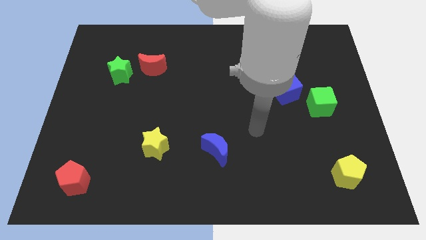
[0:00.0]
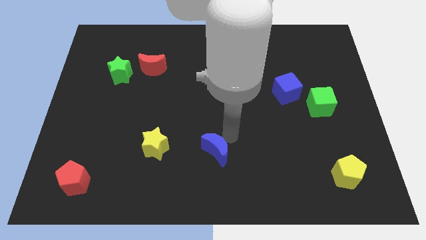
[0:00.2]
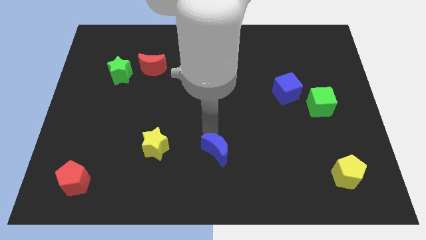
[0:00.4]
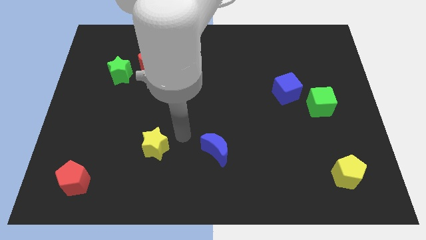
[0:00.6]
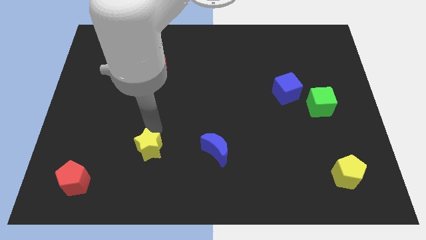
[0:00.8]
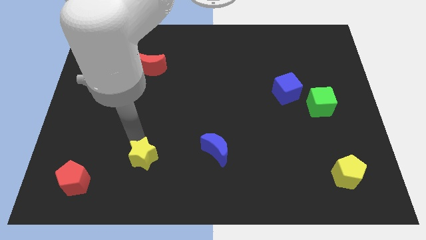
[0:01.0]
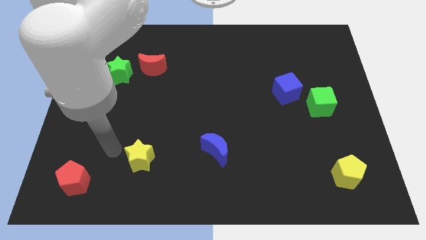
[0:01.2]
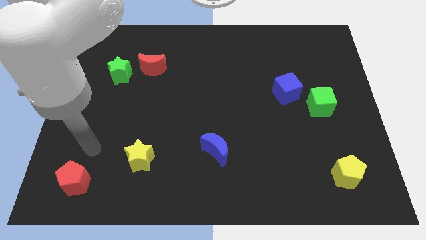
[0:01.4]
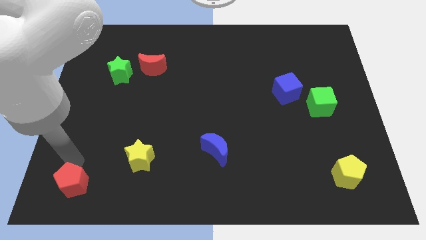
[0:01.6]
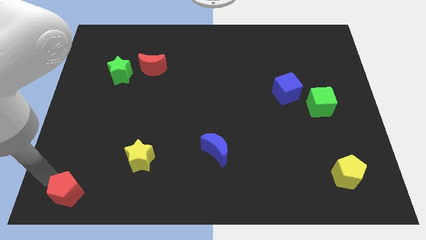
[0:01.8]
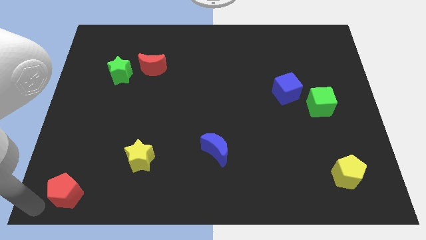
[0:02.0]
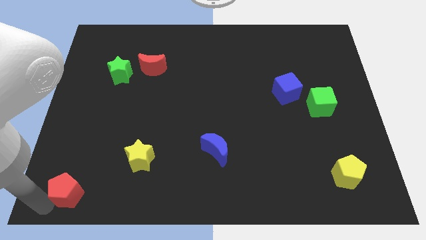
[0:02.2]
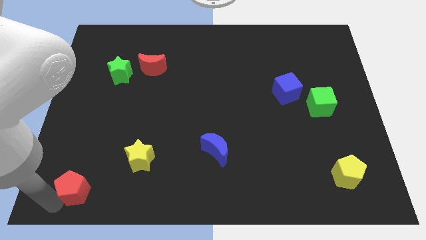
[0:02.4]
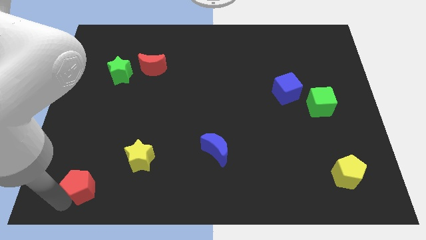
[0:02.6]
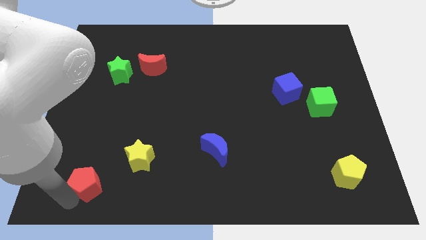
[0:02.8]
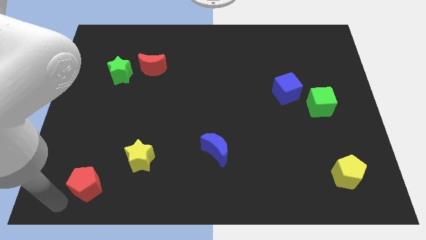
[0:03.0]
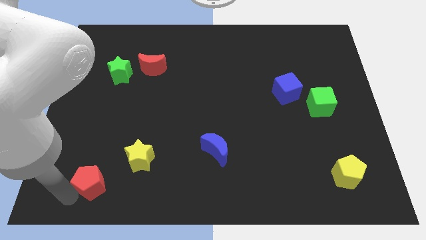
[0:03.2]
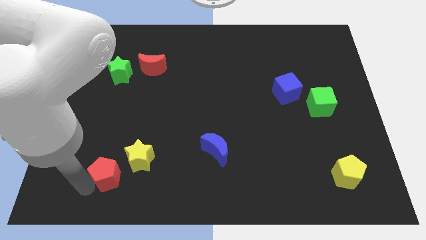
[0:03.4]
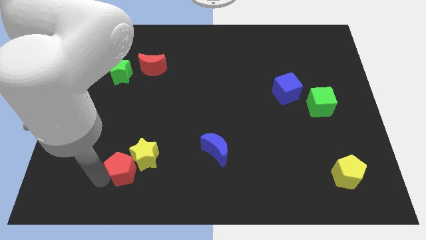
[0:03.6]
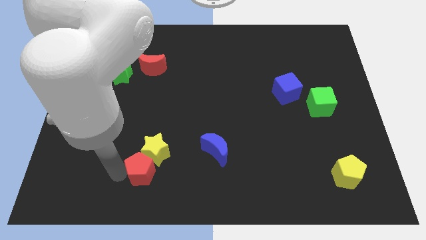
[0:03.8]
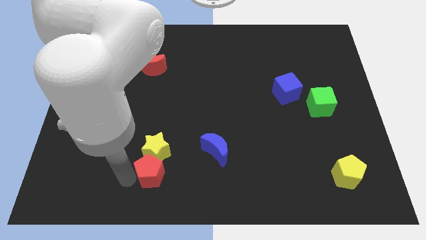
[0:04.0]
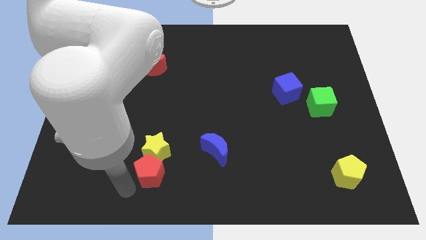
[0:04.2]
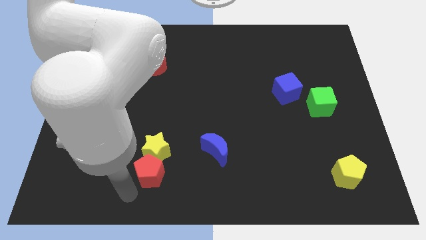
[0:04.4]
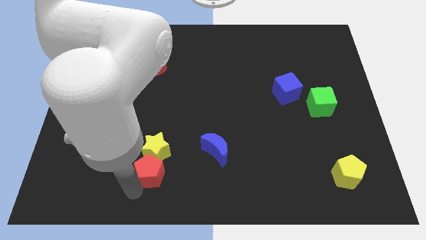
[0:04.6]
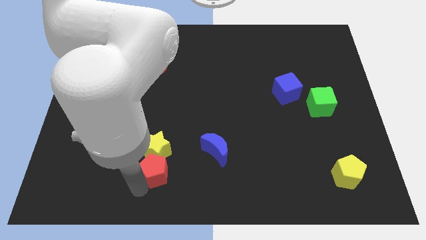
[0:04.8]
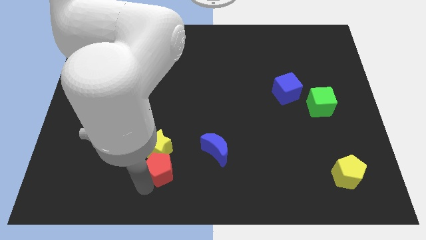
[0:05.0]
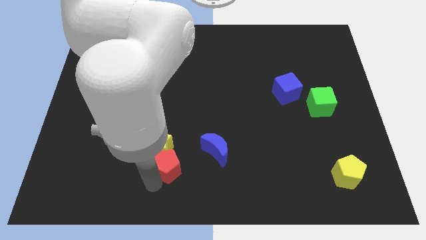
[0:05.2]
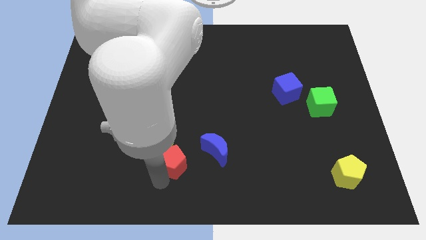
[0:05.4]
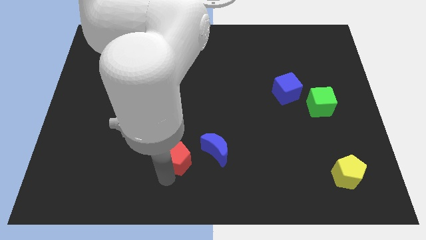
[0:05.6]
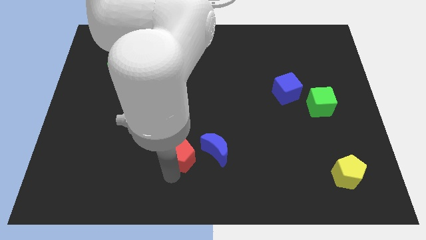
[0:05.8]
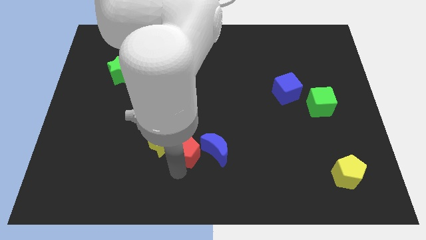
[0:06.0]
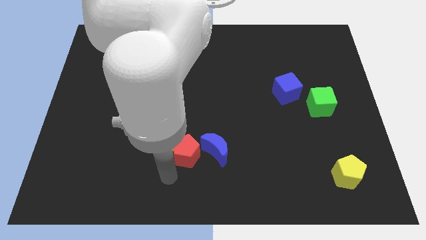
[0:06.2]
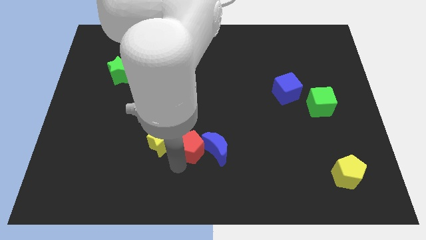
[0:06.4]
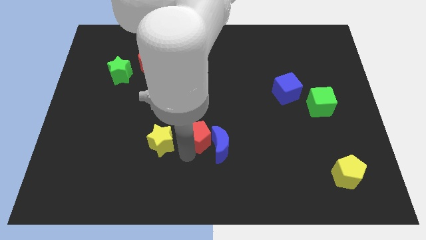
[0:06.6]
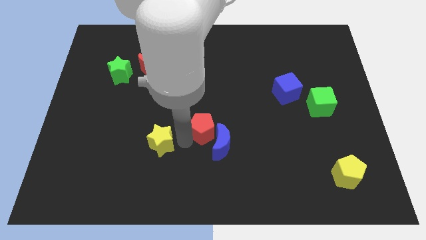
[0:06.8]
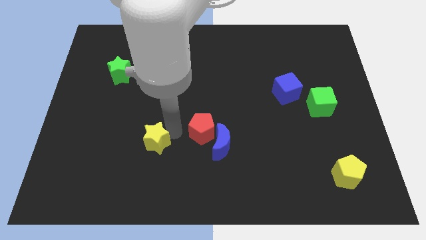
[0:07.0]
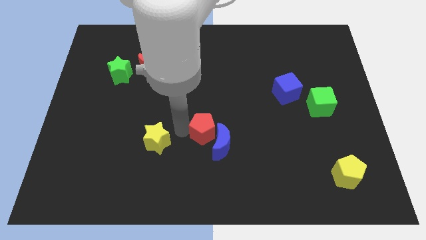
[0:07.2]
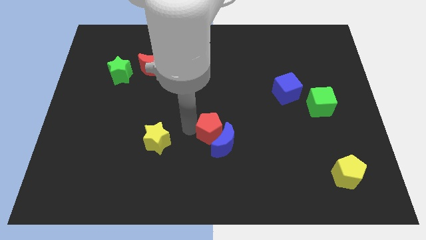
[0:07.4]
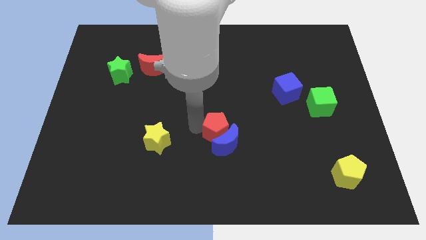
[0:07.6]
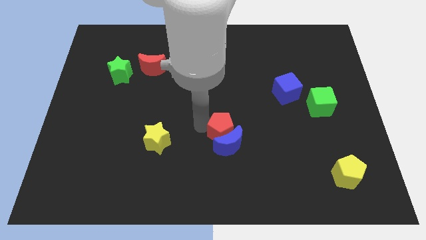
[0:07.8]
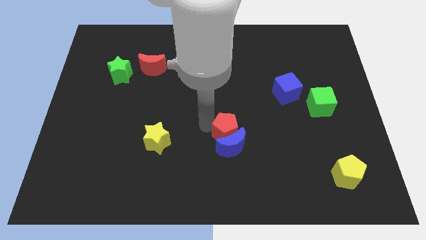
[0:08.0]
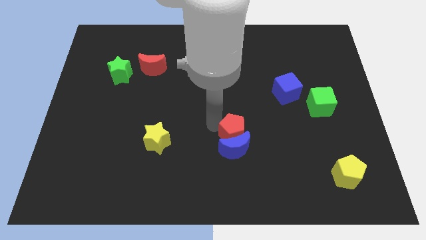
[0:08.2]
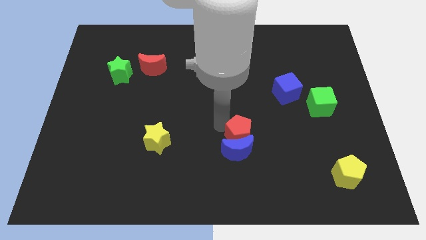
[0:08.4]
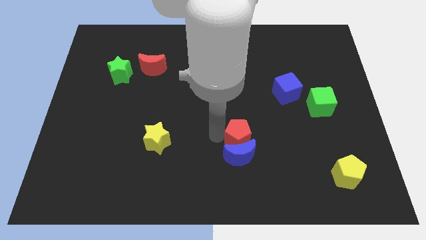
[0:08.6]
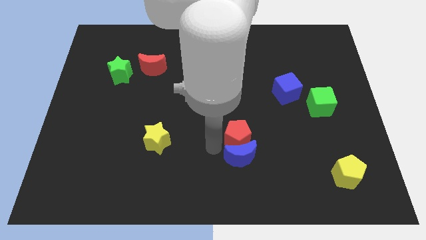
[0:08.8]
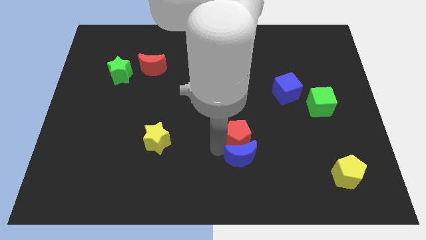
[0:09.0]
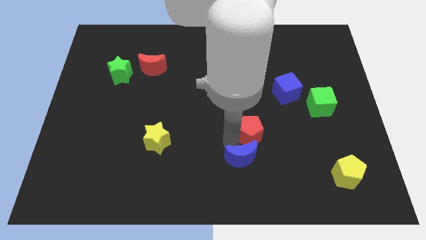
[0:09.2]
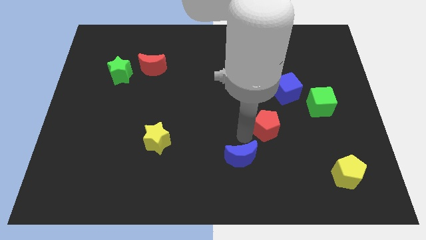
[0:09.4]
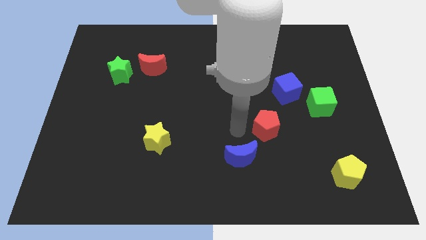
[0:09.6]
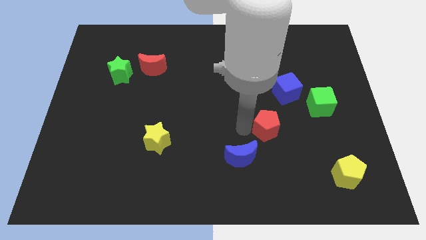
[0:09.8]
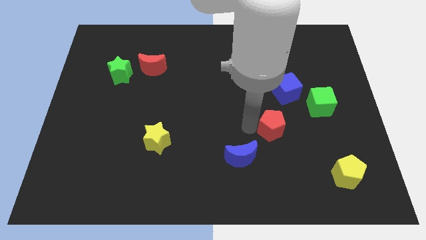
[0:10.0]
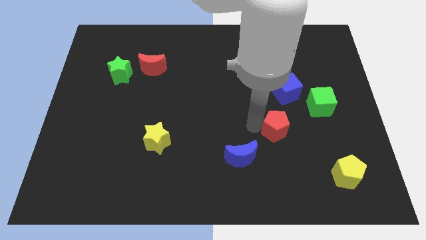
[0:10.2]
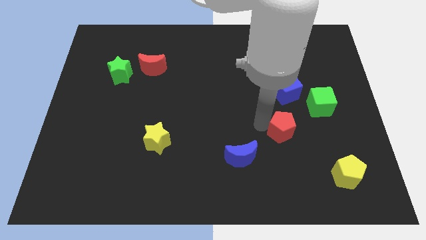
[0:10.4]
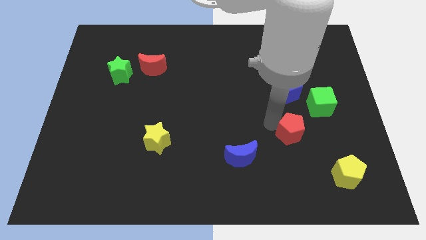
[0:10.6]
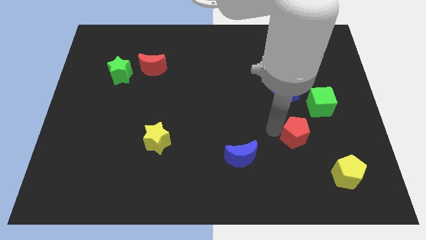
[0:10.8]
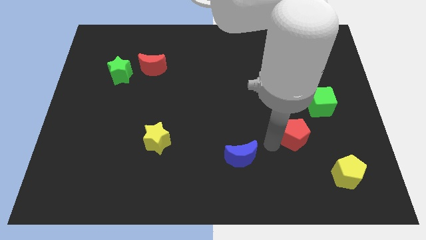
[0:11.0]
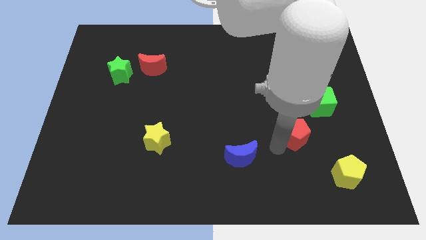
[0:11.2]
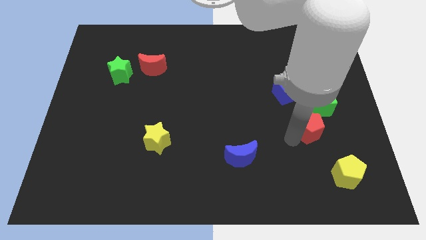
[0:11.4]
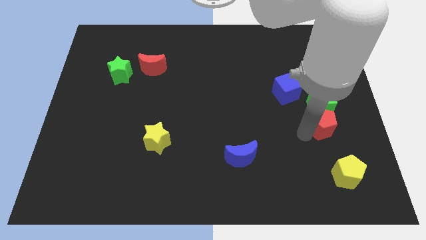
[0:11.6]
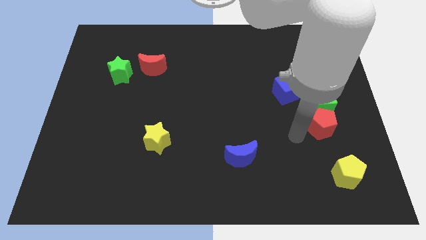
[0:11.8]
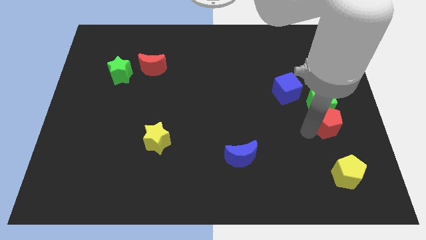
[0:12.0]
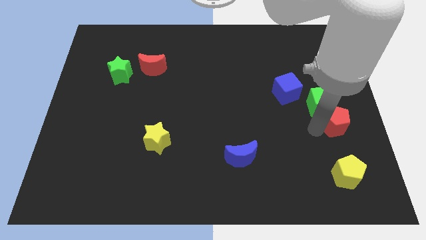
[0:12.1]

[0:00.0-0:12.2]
move the red pentagon to the right side

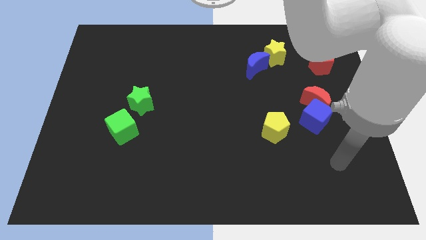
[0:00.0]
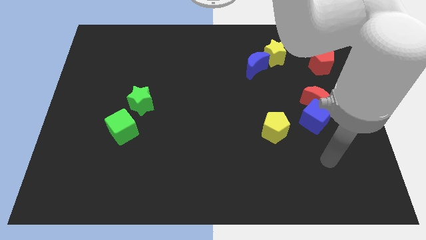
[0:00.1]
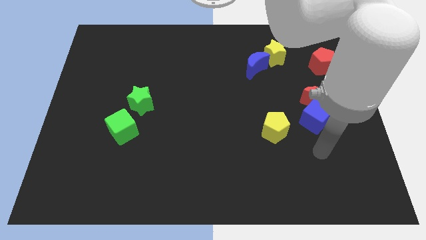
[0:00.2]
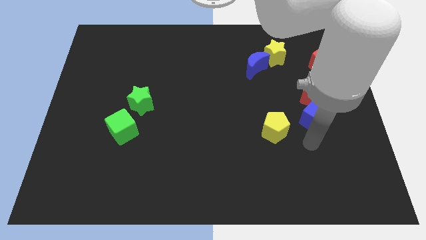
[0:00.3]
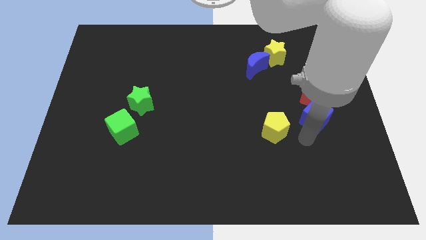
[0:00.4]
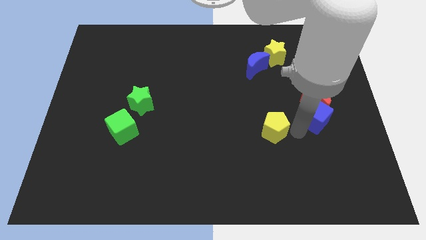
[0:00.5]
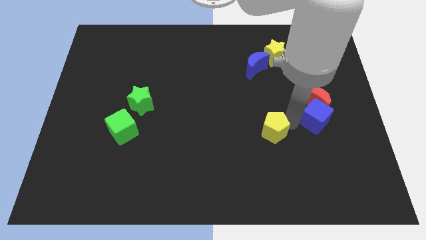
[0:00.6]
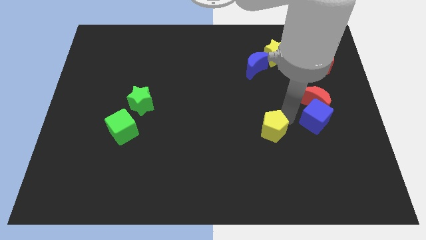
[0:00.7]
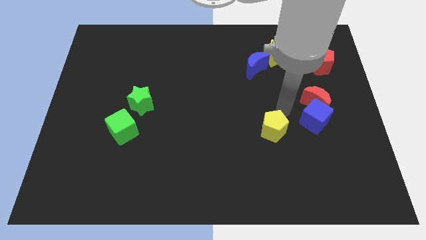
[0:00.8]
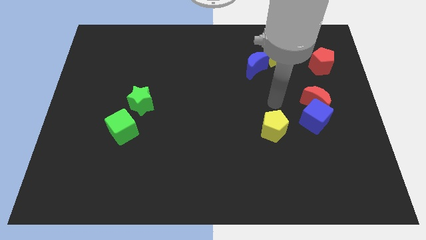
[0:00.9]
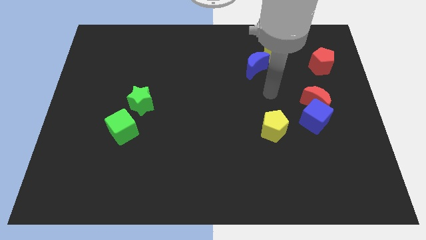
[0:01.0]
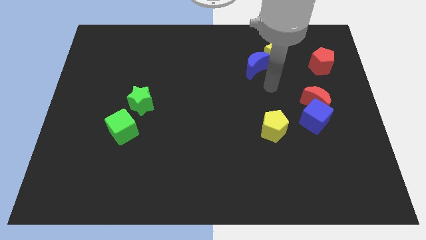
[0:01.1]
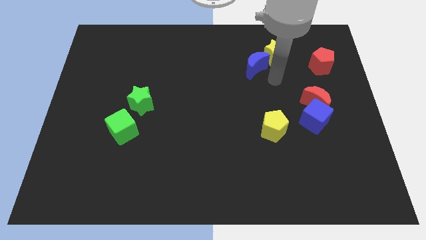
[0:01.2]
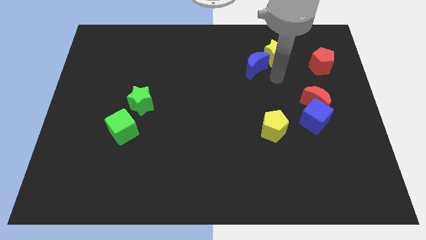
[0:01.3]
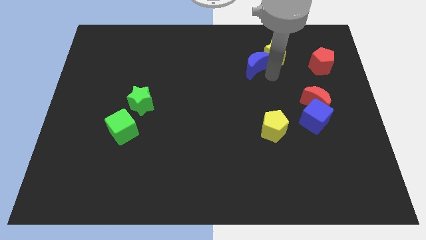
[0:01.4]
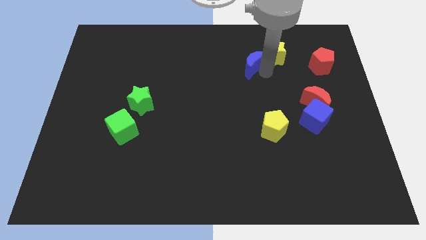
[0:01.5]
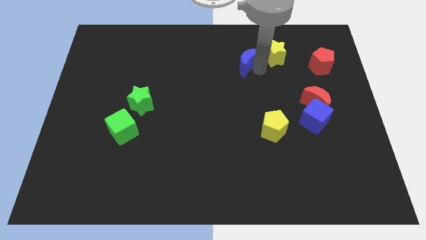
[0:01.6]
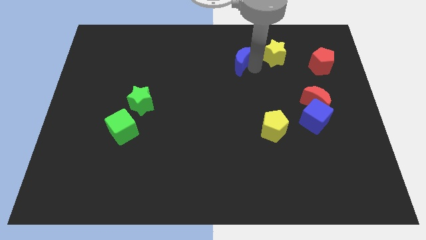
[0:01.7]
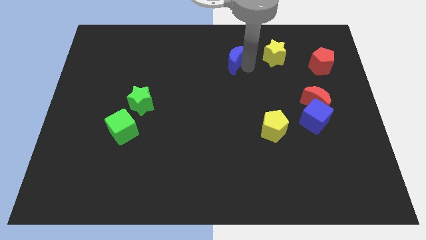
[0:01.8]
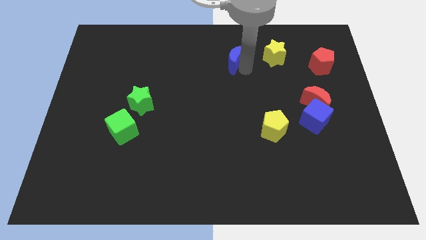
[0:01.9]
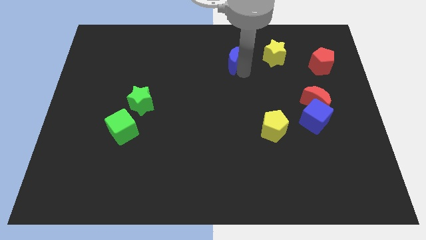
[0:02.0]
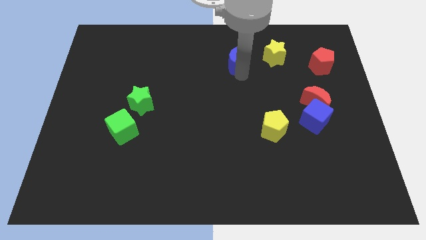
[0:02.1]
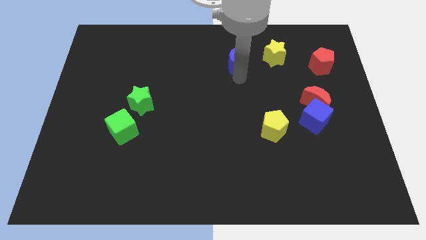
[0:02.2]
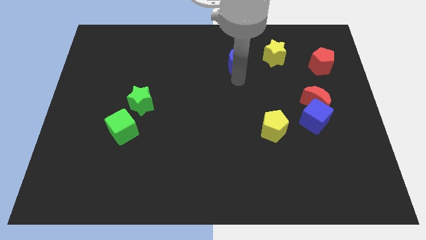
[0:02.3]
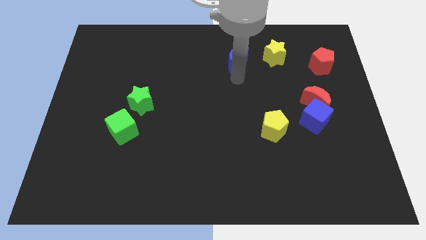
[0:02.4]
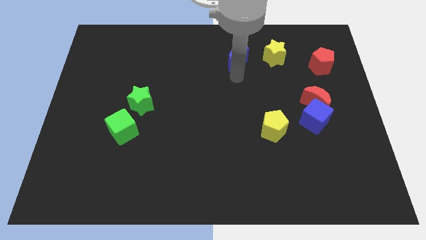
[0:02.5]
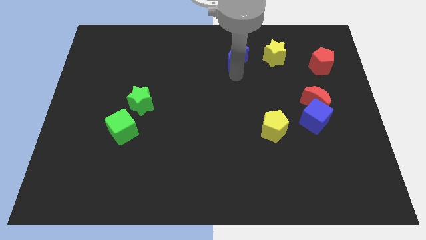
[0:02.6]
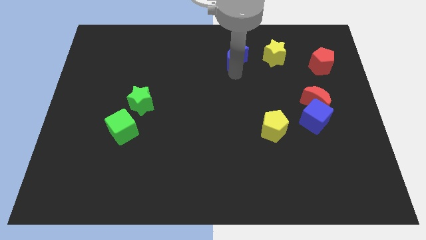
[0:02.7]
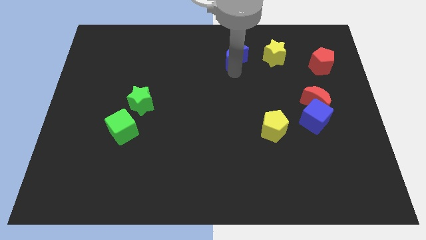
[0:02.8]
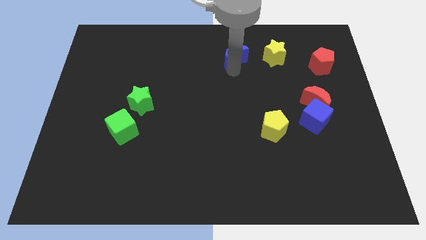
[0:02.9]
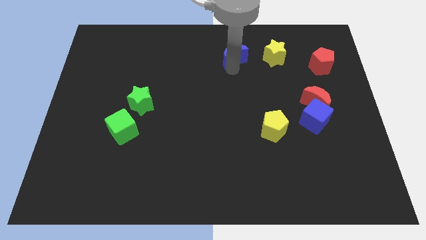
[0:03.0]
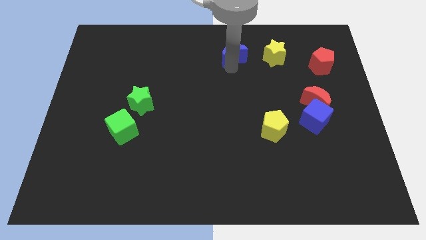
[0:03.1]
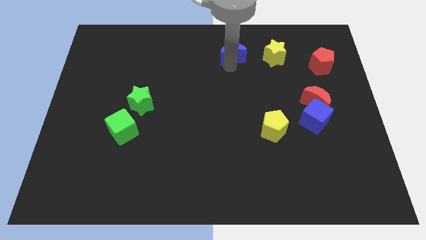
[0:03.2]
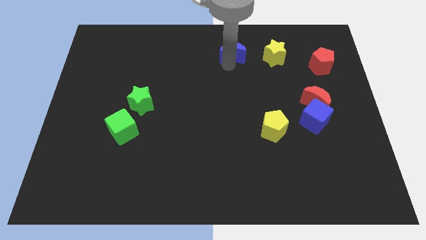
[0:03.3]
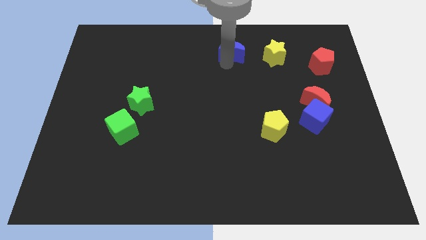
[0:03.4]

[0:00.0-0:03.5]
move the blue moon to the top side
